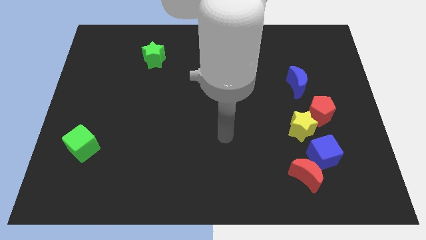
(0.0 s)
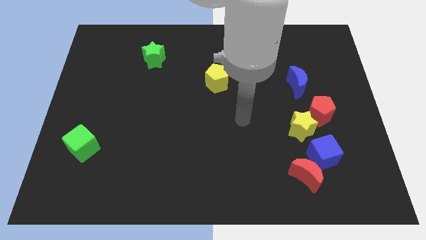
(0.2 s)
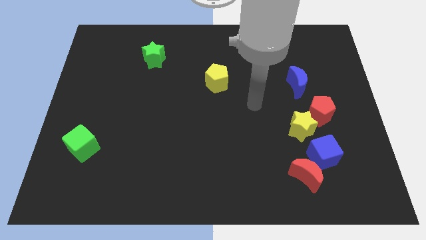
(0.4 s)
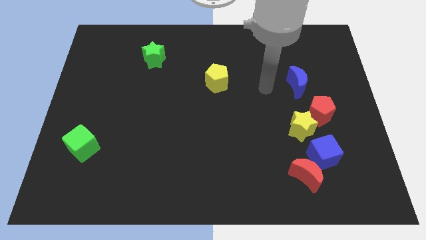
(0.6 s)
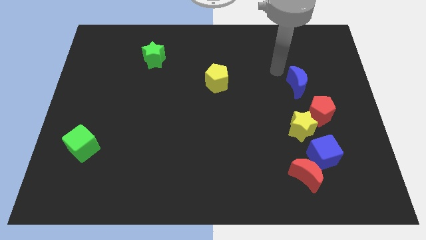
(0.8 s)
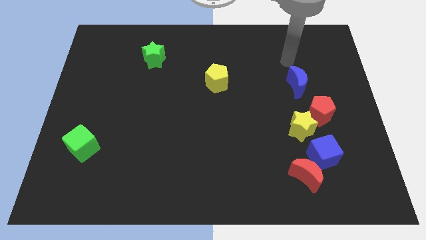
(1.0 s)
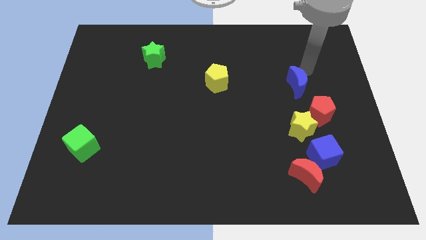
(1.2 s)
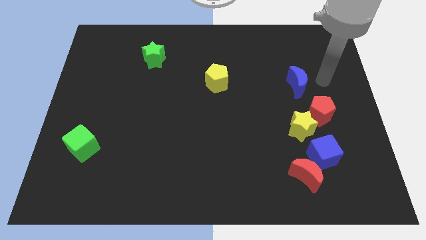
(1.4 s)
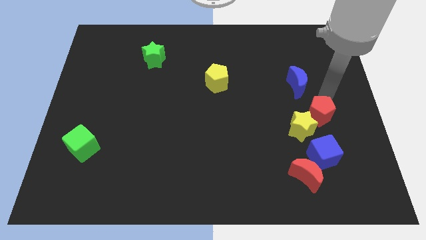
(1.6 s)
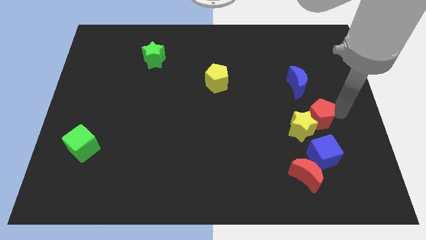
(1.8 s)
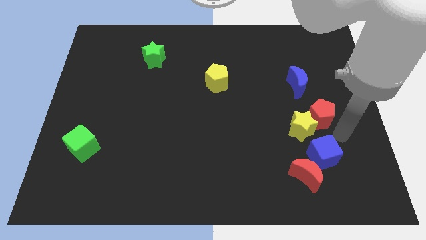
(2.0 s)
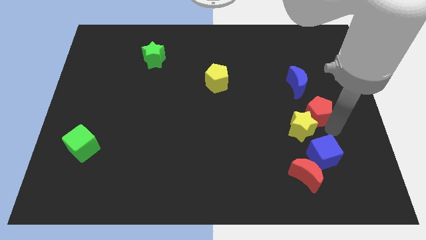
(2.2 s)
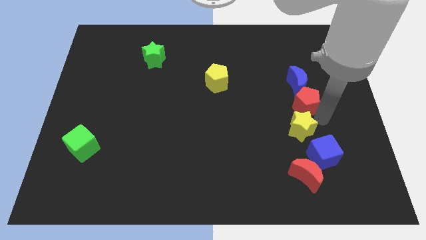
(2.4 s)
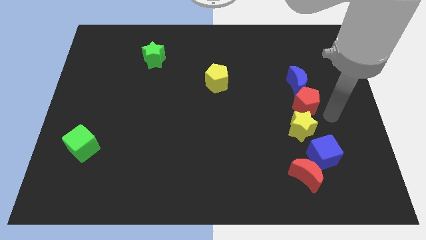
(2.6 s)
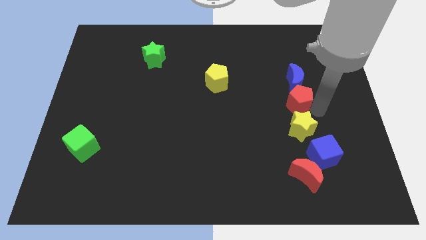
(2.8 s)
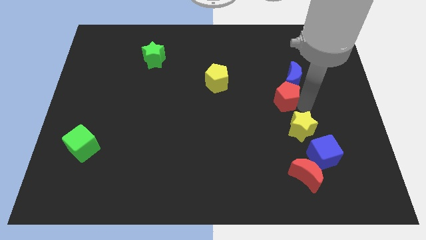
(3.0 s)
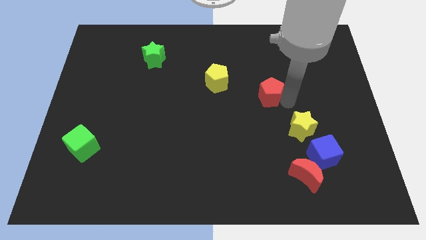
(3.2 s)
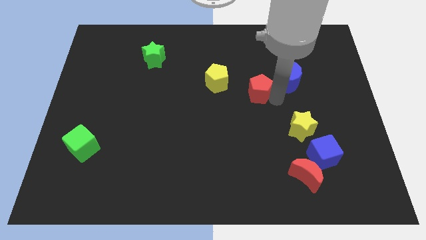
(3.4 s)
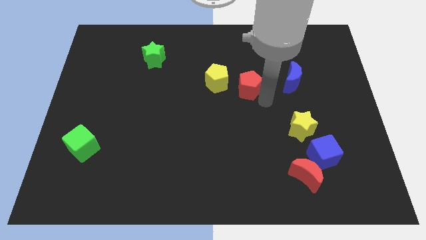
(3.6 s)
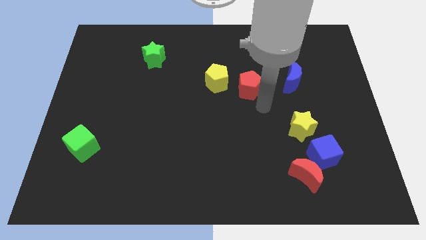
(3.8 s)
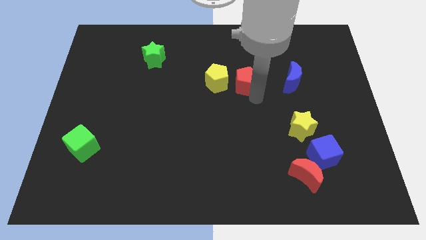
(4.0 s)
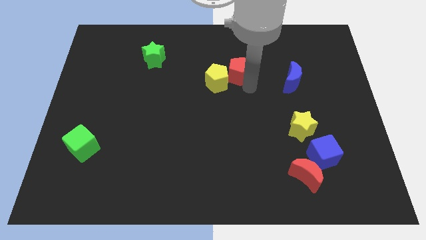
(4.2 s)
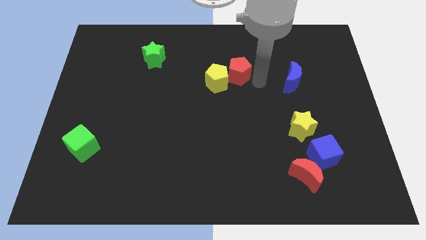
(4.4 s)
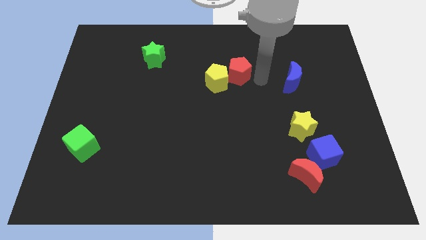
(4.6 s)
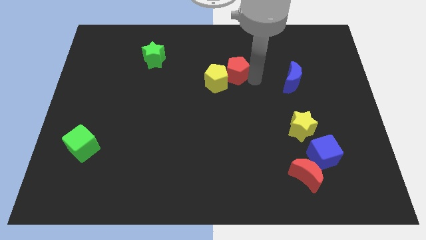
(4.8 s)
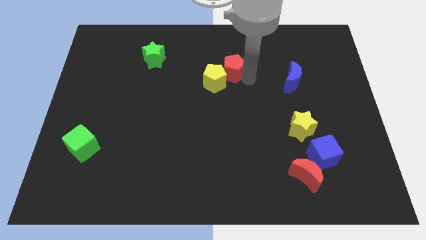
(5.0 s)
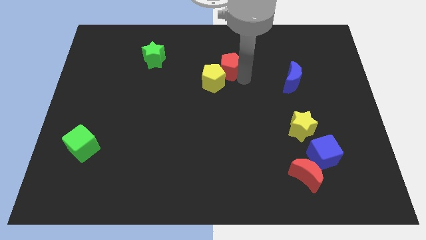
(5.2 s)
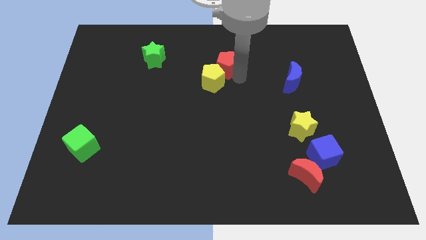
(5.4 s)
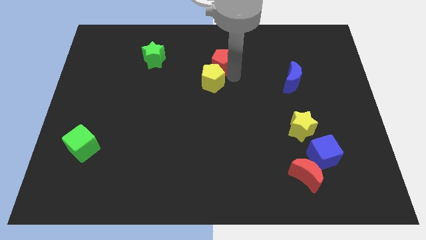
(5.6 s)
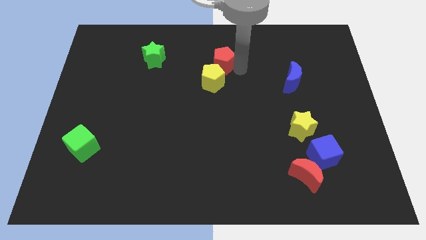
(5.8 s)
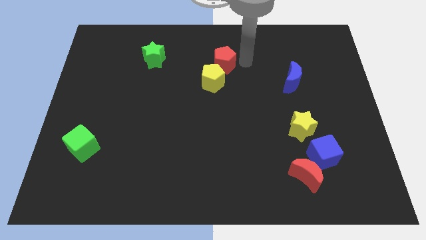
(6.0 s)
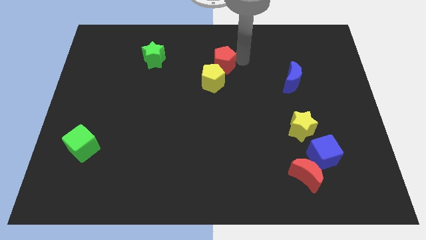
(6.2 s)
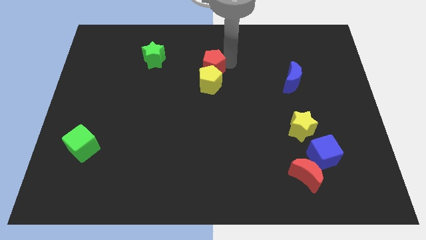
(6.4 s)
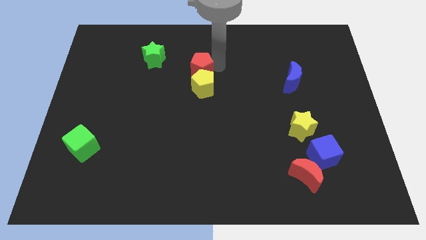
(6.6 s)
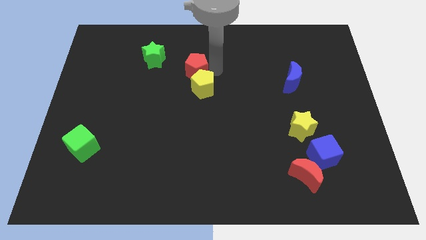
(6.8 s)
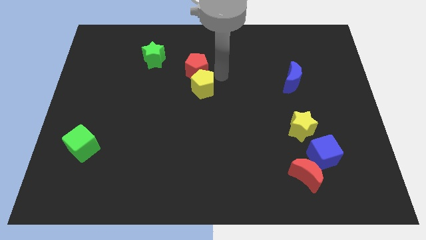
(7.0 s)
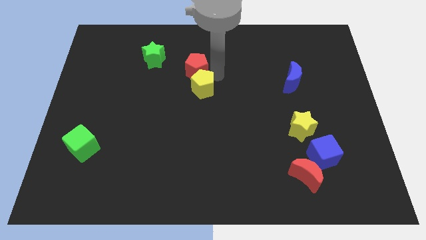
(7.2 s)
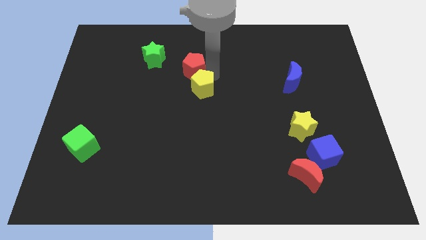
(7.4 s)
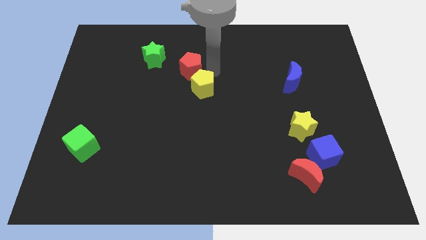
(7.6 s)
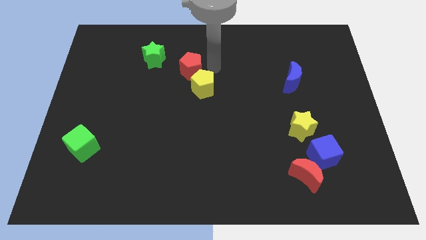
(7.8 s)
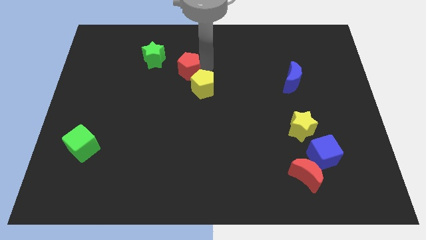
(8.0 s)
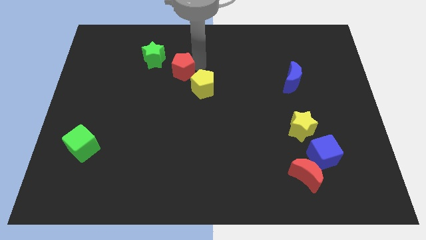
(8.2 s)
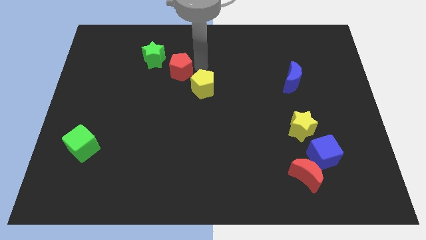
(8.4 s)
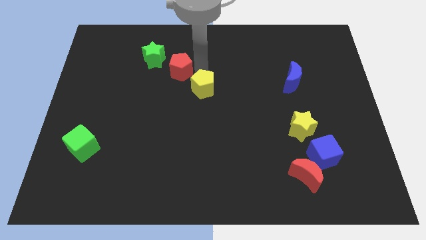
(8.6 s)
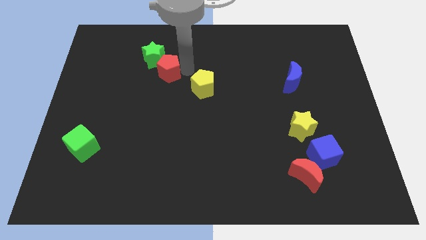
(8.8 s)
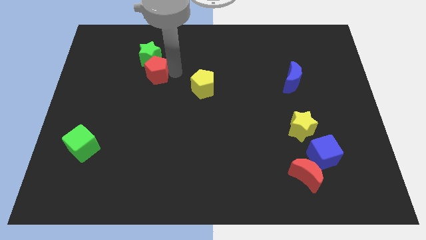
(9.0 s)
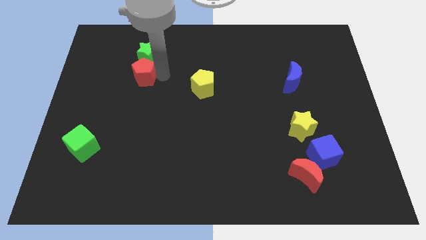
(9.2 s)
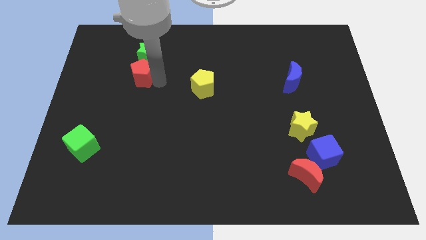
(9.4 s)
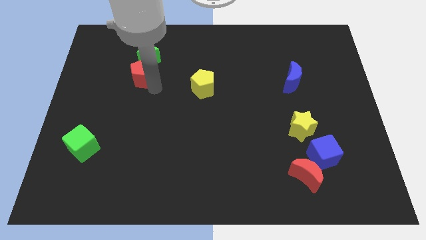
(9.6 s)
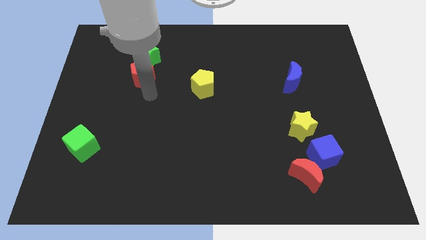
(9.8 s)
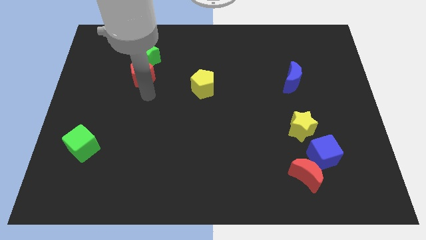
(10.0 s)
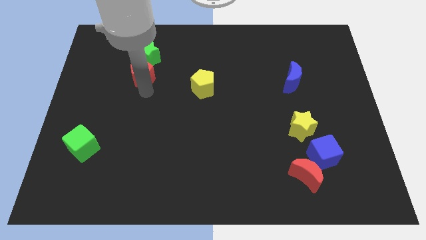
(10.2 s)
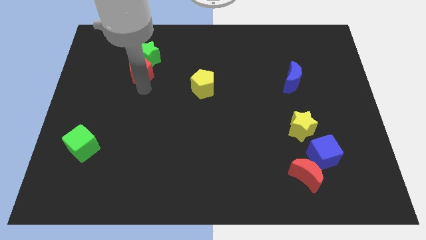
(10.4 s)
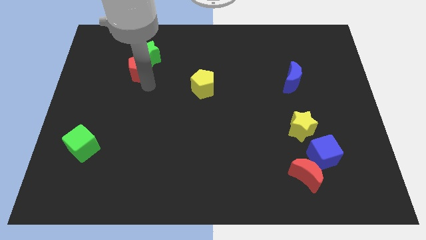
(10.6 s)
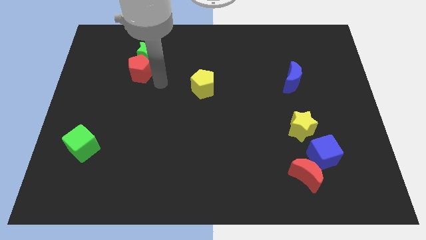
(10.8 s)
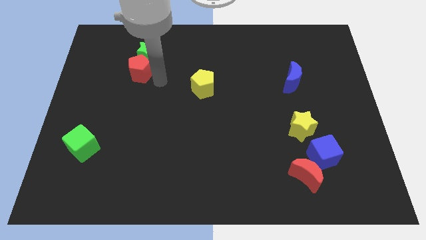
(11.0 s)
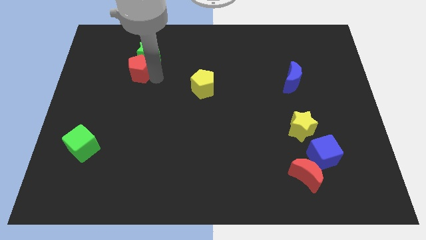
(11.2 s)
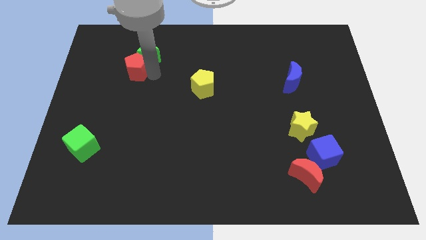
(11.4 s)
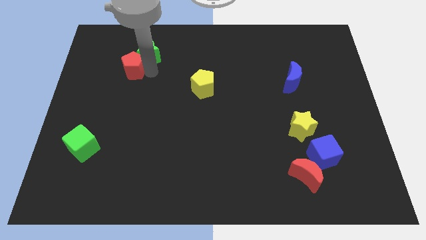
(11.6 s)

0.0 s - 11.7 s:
slide the red pentagon just left of the green star
